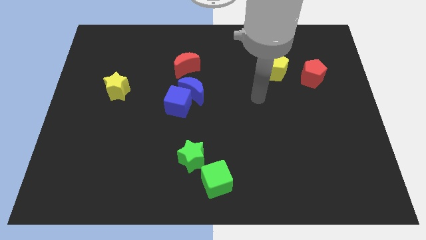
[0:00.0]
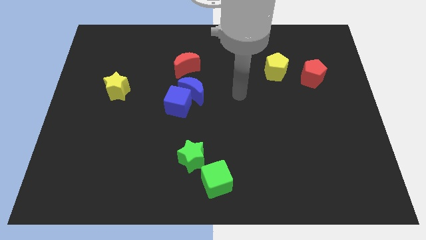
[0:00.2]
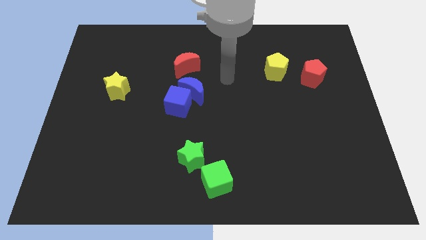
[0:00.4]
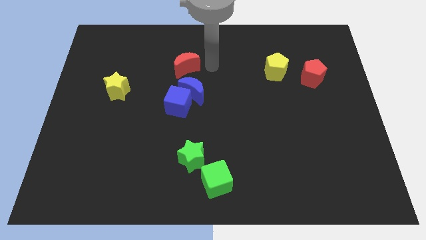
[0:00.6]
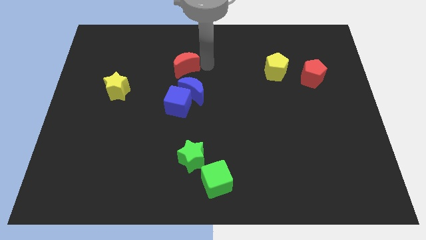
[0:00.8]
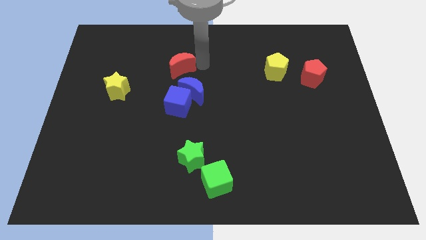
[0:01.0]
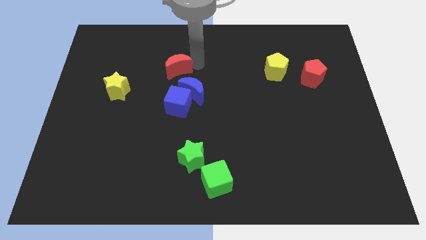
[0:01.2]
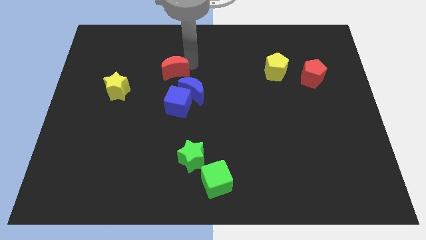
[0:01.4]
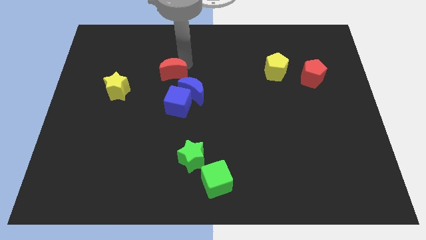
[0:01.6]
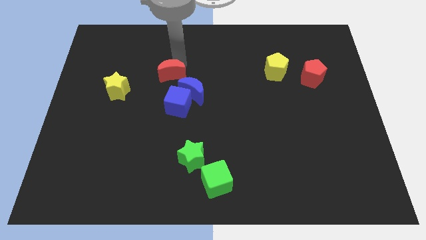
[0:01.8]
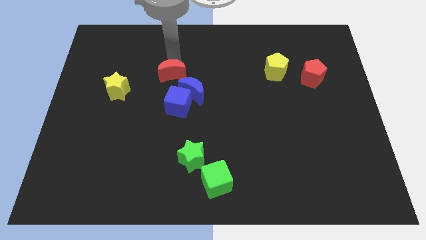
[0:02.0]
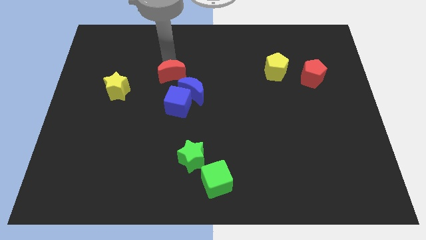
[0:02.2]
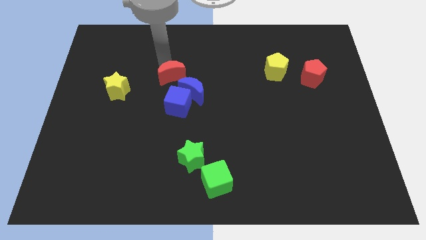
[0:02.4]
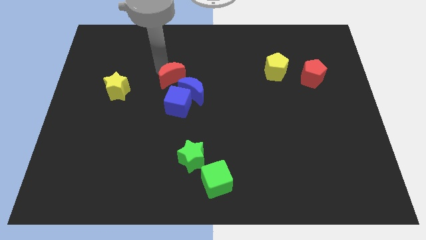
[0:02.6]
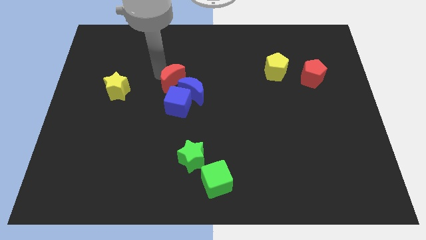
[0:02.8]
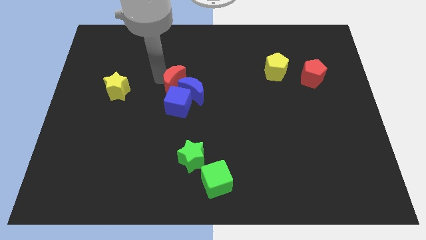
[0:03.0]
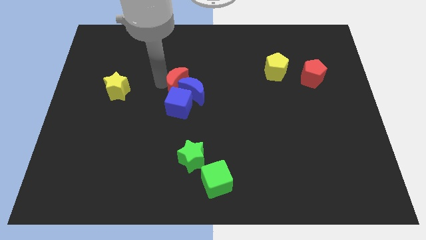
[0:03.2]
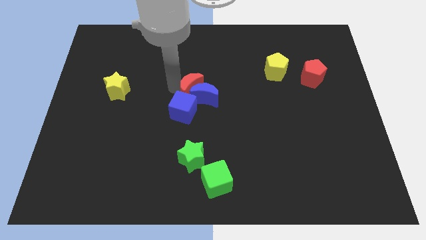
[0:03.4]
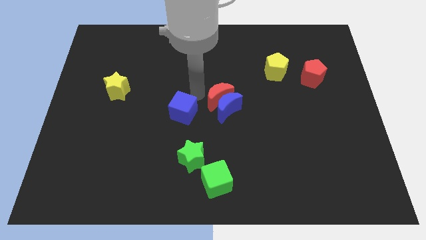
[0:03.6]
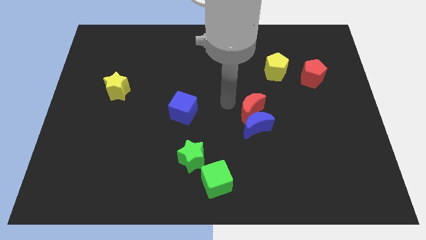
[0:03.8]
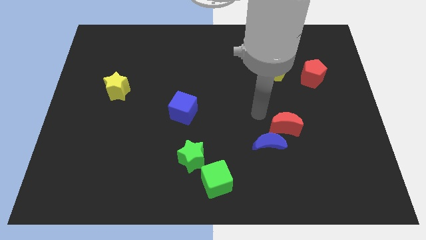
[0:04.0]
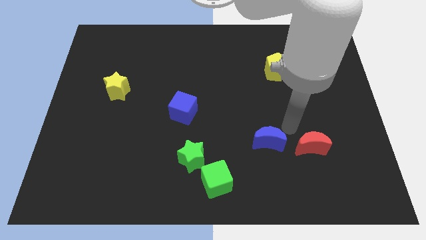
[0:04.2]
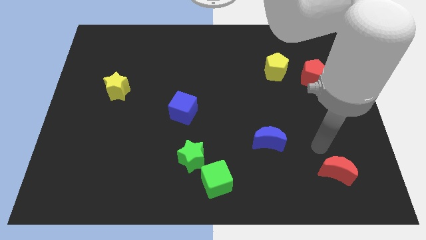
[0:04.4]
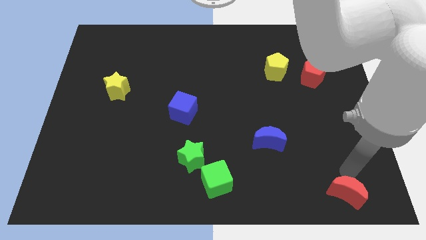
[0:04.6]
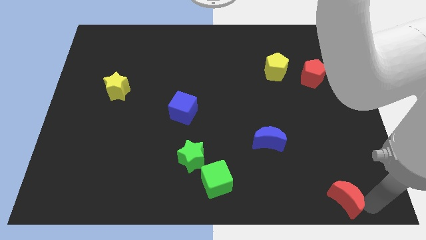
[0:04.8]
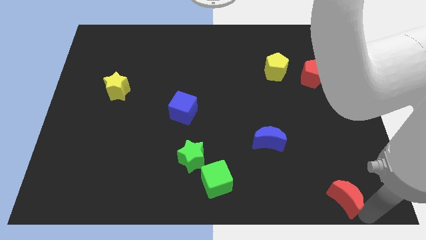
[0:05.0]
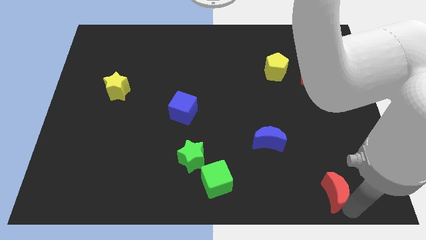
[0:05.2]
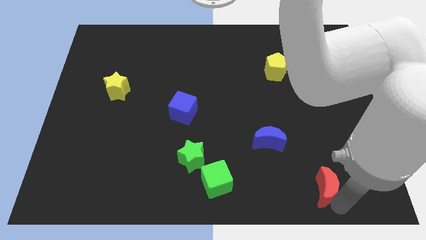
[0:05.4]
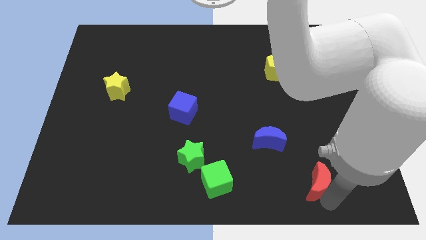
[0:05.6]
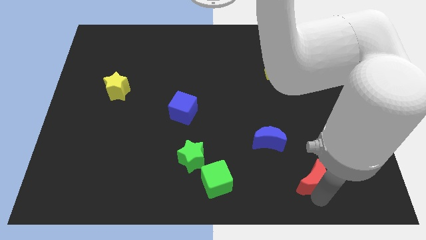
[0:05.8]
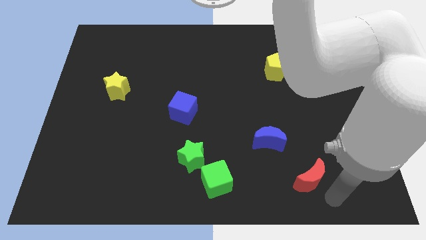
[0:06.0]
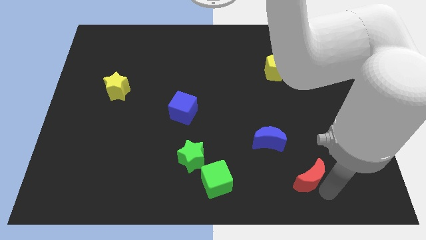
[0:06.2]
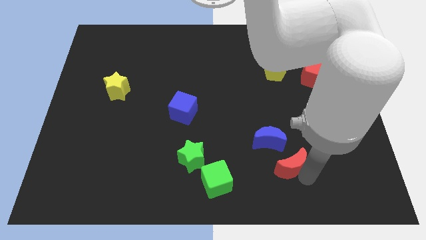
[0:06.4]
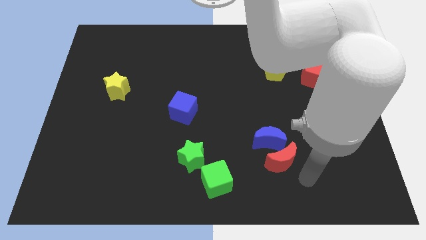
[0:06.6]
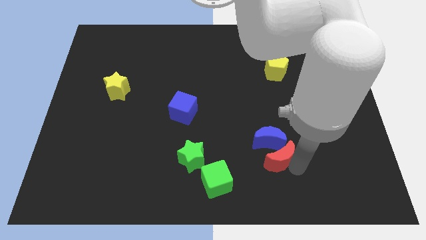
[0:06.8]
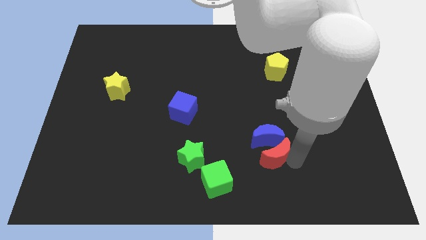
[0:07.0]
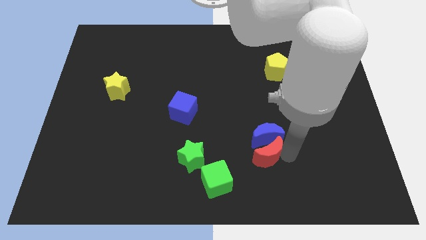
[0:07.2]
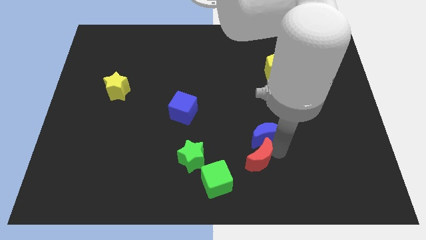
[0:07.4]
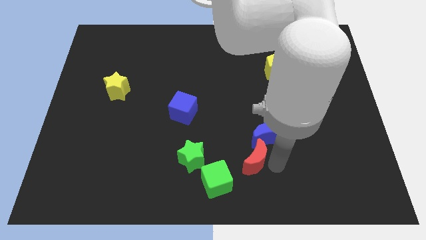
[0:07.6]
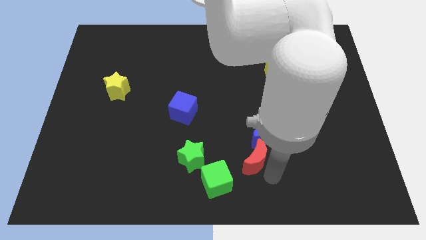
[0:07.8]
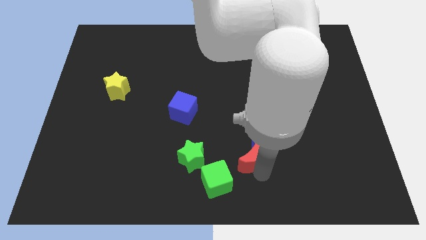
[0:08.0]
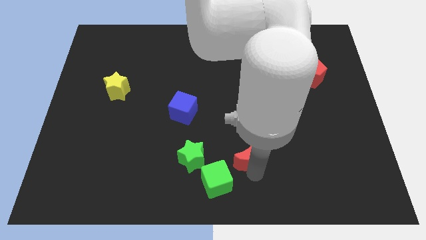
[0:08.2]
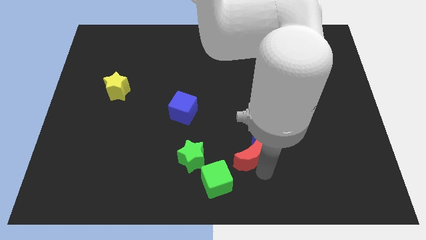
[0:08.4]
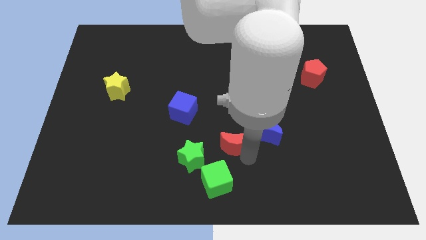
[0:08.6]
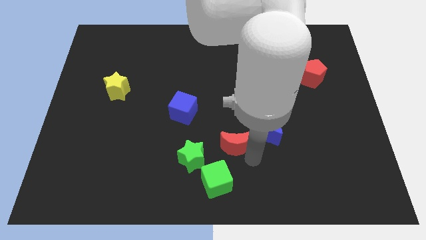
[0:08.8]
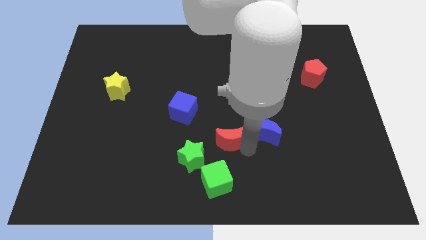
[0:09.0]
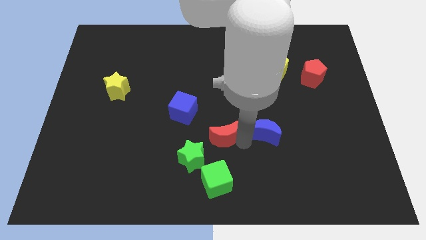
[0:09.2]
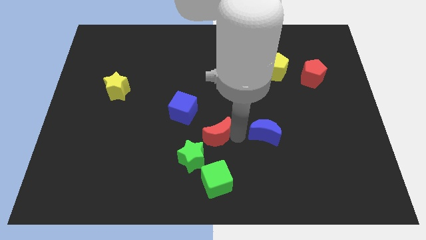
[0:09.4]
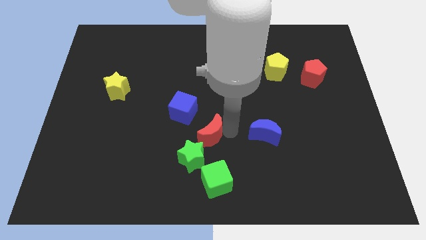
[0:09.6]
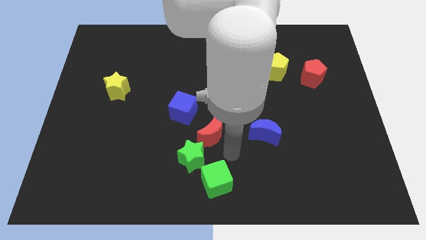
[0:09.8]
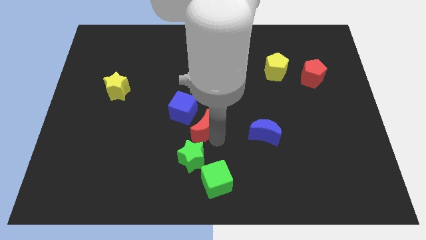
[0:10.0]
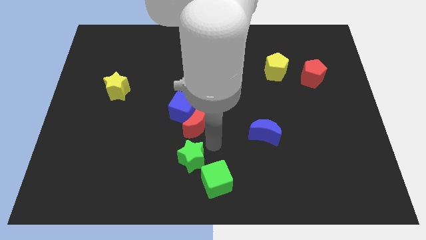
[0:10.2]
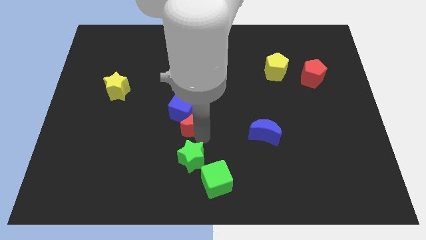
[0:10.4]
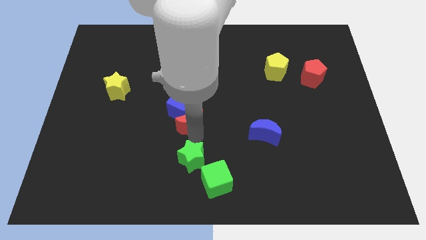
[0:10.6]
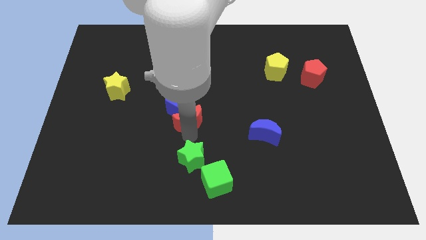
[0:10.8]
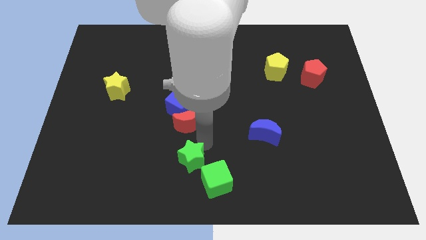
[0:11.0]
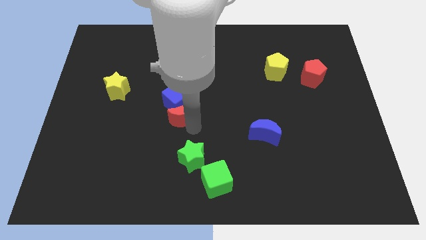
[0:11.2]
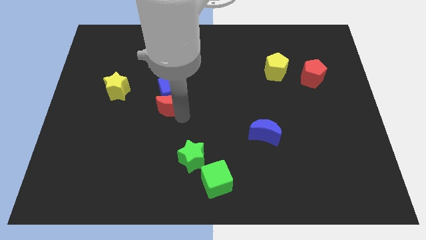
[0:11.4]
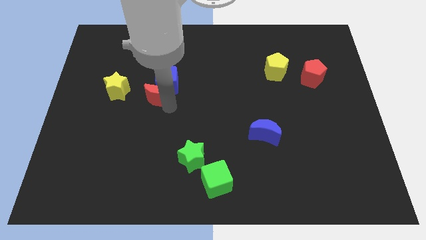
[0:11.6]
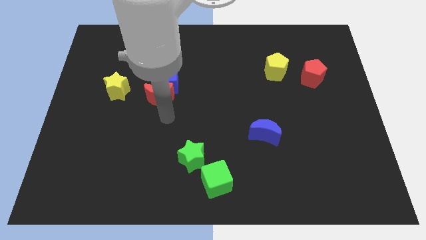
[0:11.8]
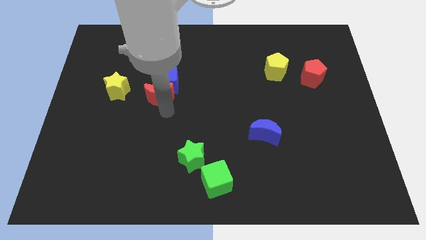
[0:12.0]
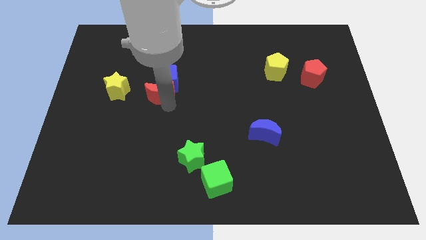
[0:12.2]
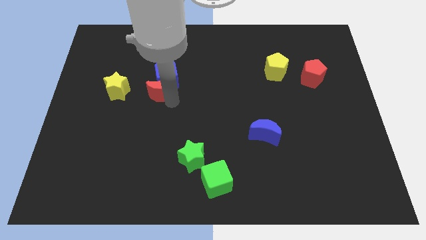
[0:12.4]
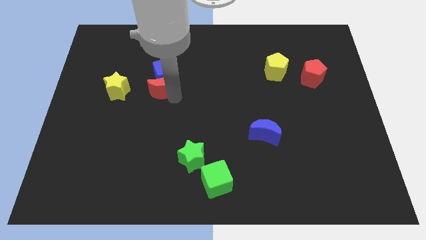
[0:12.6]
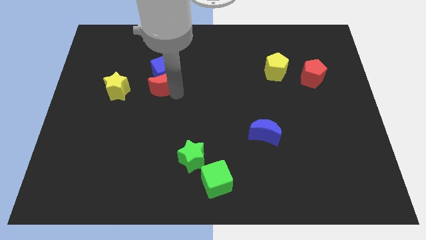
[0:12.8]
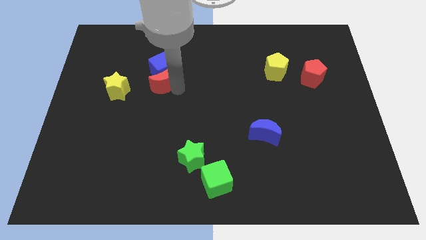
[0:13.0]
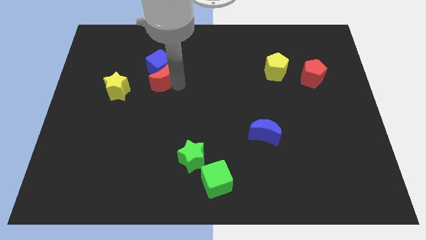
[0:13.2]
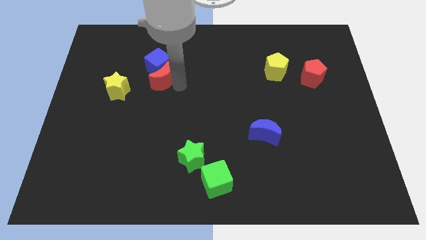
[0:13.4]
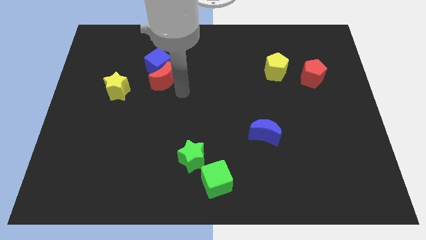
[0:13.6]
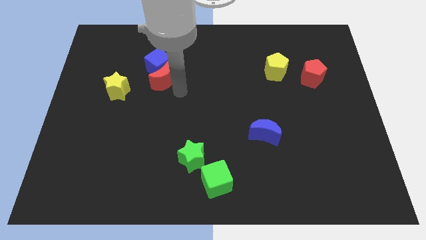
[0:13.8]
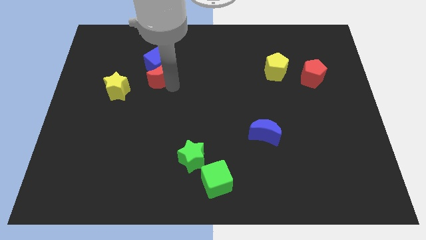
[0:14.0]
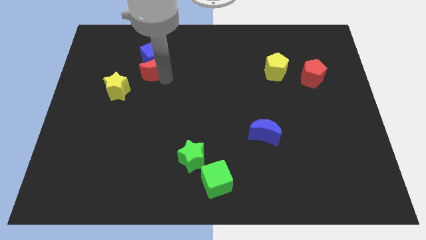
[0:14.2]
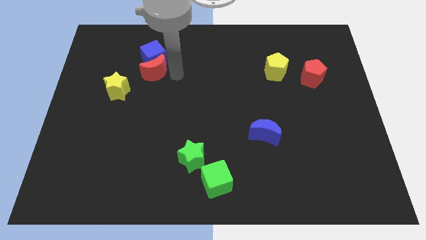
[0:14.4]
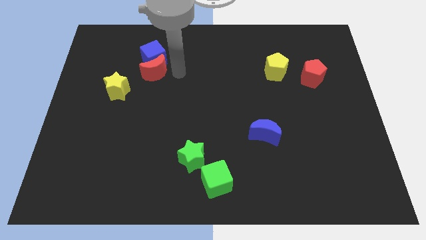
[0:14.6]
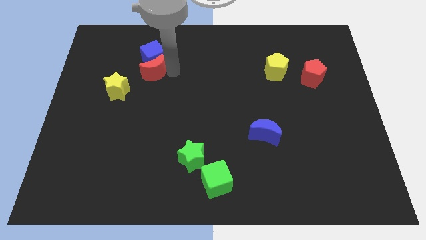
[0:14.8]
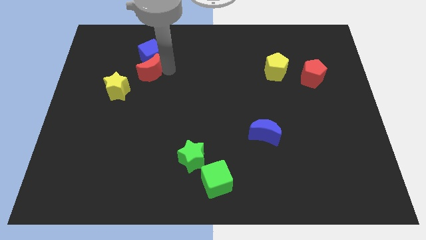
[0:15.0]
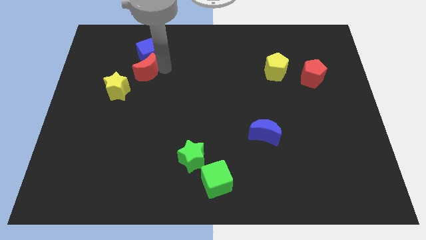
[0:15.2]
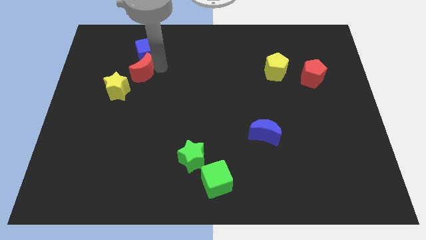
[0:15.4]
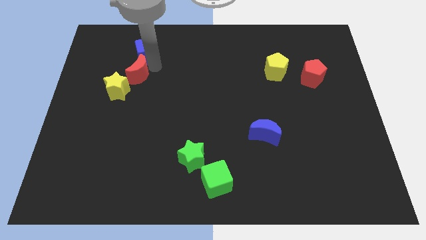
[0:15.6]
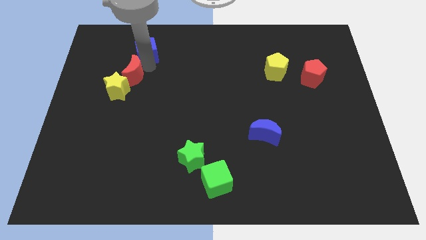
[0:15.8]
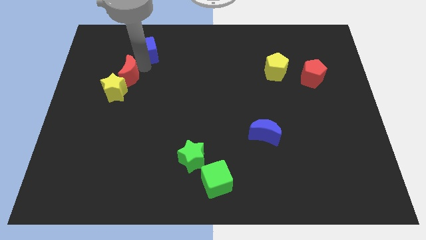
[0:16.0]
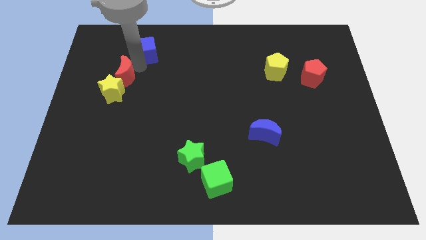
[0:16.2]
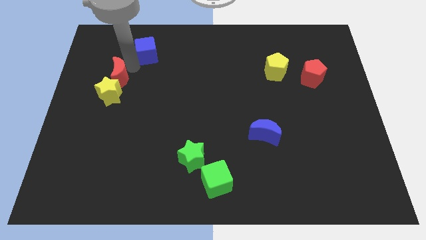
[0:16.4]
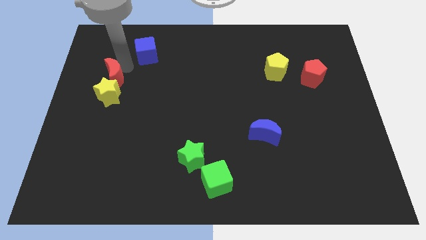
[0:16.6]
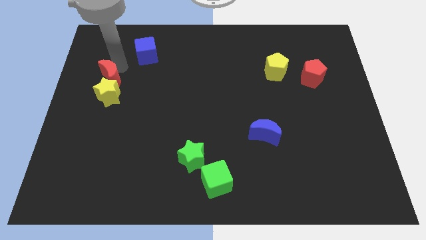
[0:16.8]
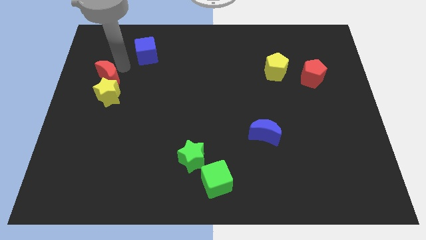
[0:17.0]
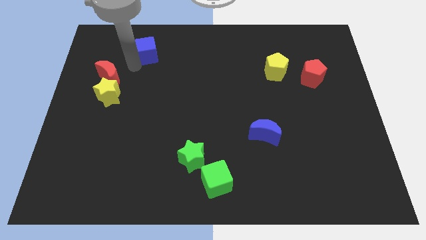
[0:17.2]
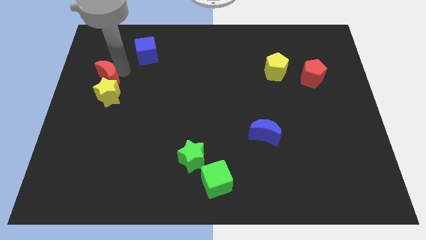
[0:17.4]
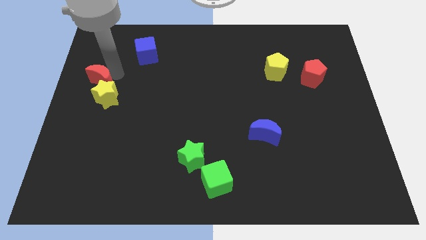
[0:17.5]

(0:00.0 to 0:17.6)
push the red moon to the left side
